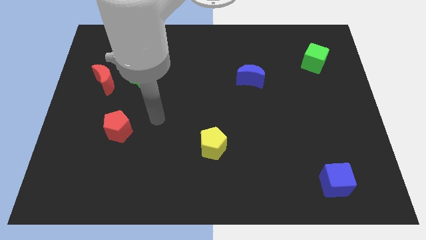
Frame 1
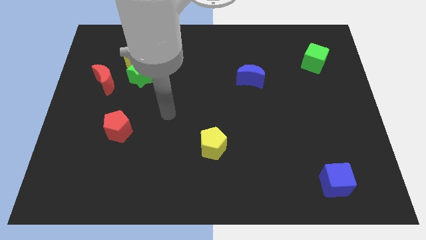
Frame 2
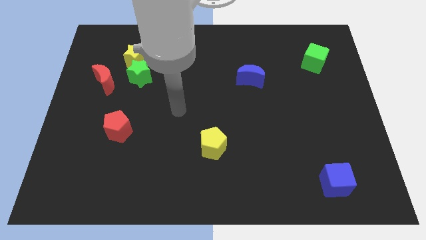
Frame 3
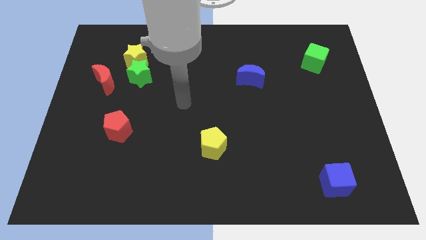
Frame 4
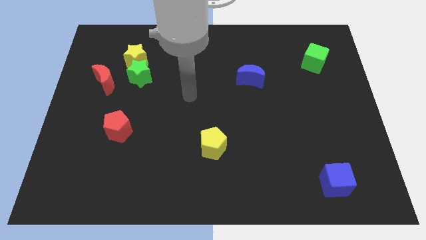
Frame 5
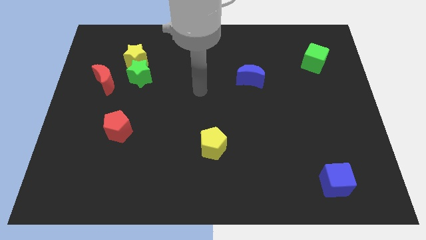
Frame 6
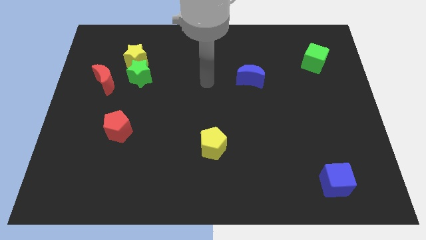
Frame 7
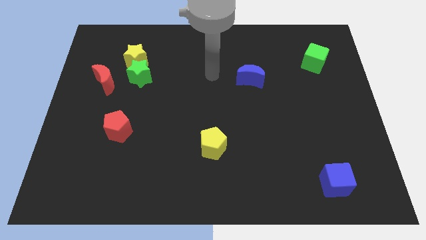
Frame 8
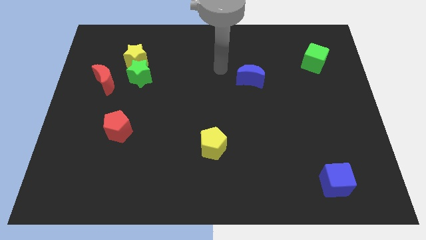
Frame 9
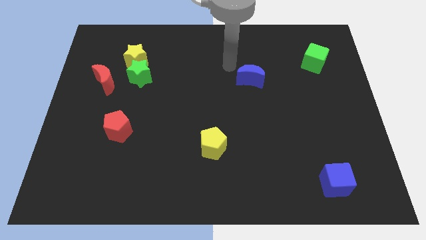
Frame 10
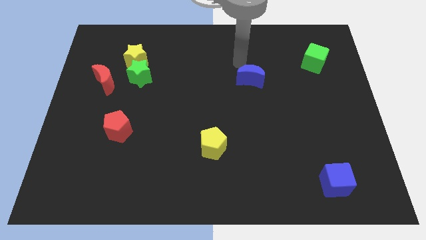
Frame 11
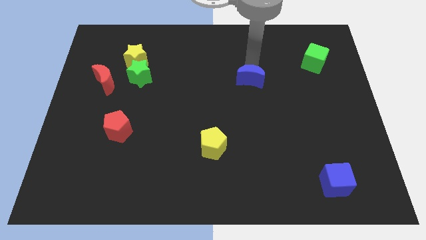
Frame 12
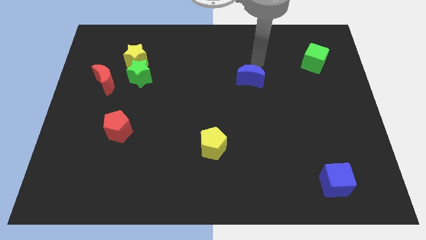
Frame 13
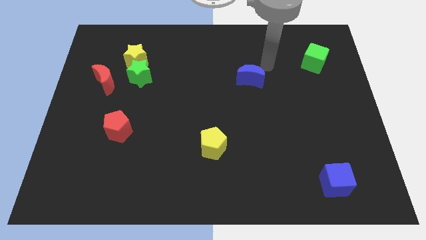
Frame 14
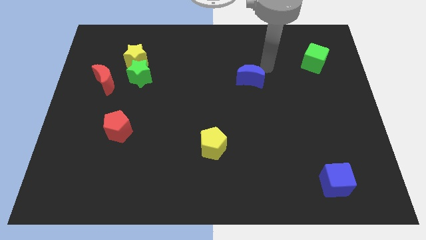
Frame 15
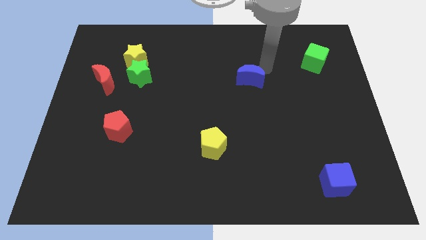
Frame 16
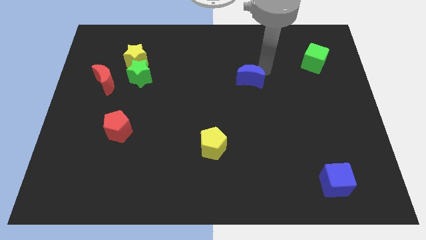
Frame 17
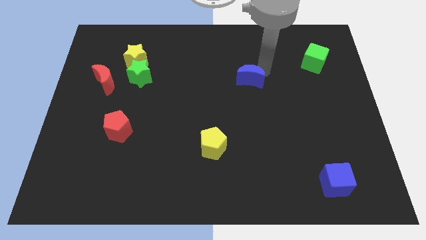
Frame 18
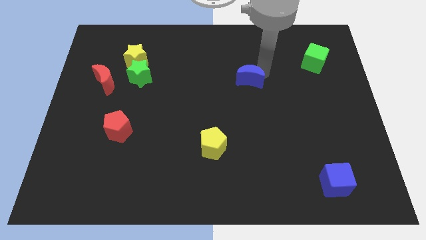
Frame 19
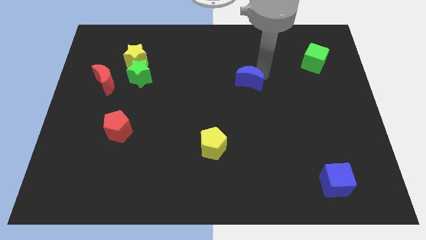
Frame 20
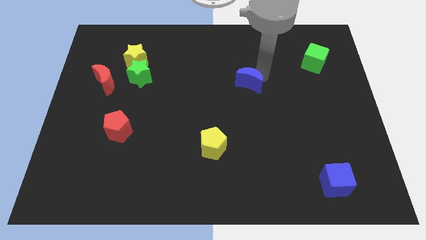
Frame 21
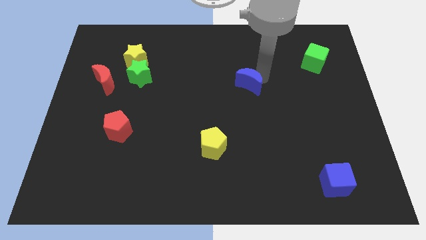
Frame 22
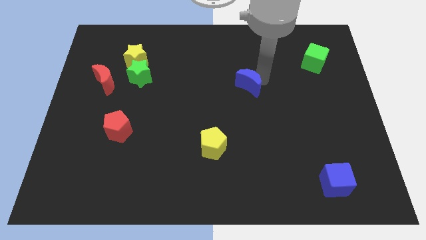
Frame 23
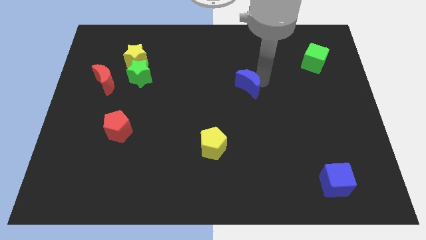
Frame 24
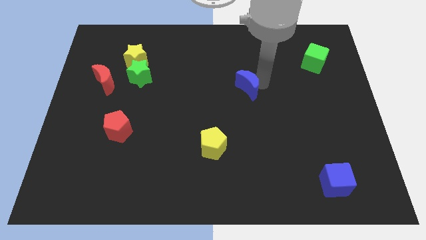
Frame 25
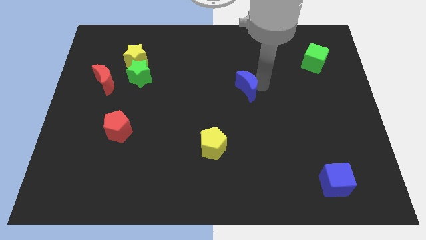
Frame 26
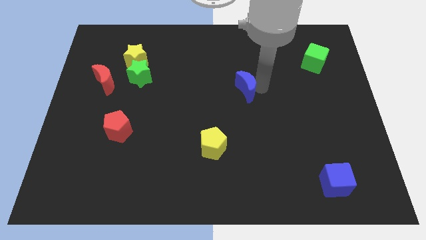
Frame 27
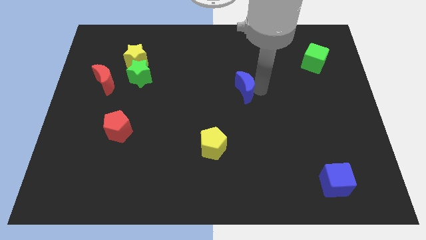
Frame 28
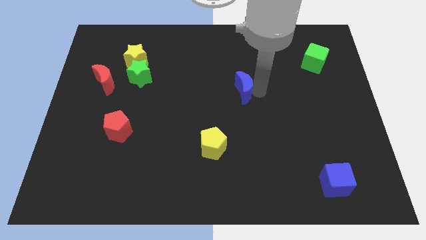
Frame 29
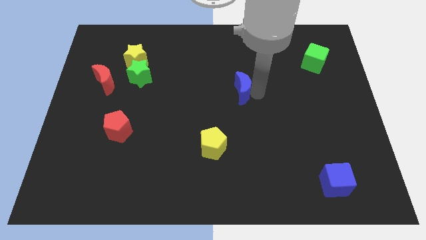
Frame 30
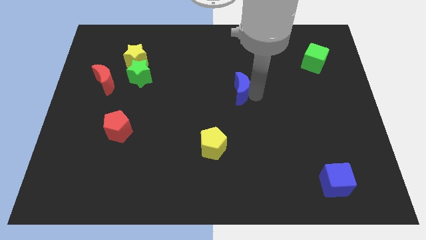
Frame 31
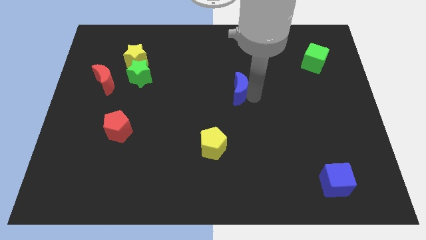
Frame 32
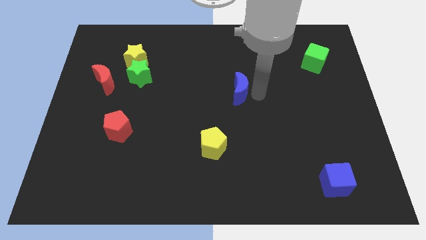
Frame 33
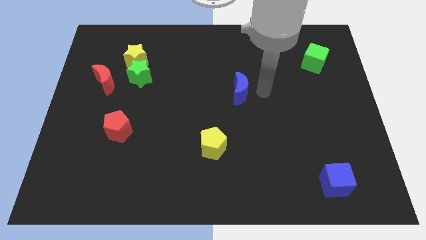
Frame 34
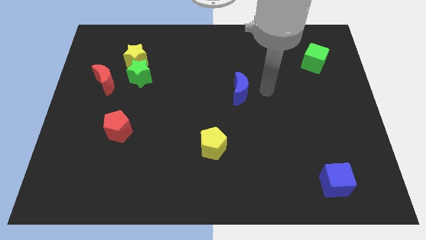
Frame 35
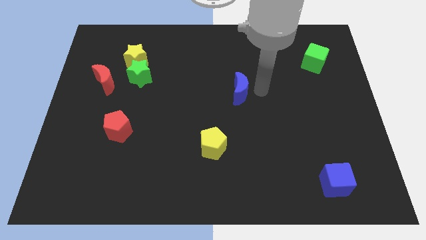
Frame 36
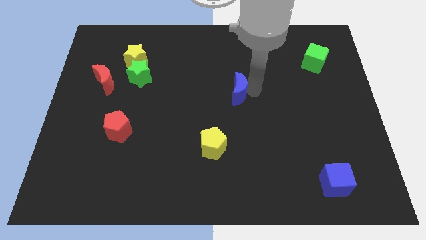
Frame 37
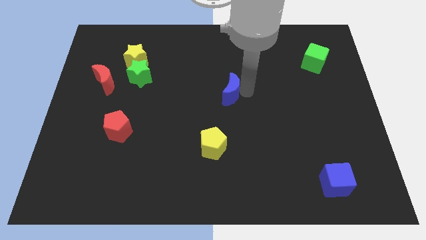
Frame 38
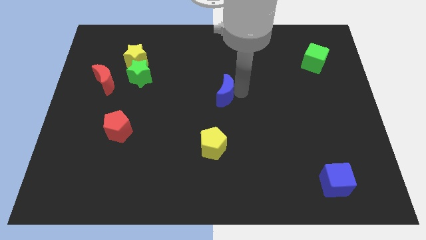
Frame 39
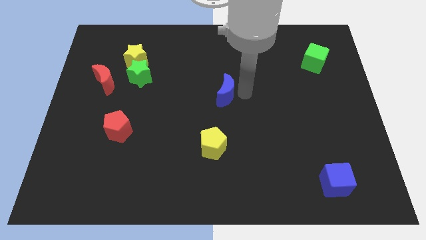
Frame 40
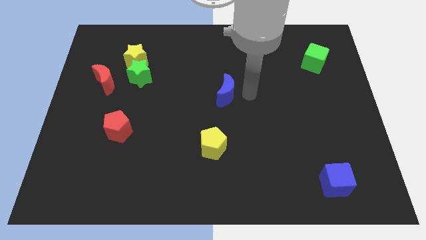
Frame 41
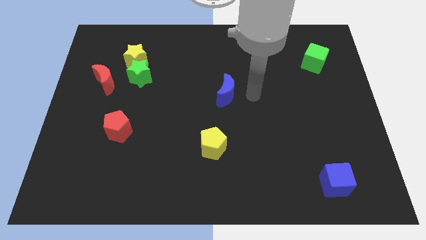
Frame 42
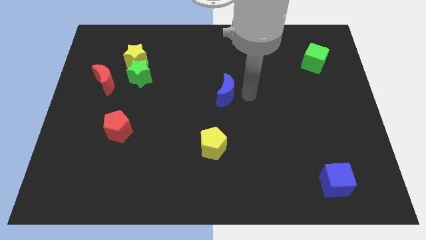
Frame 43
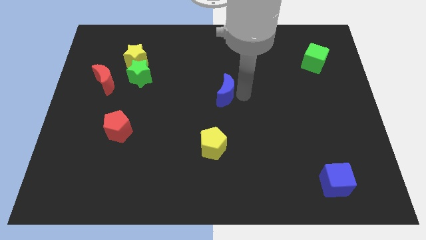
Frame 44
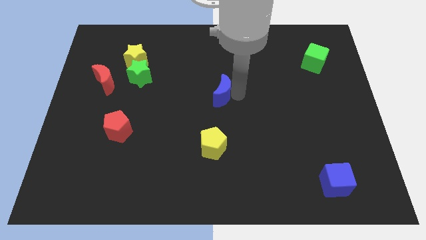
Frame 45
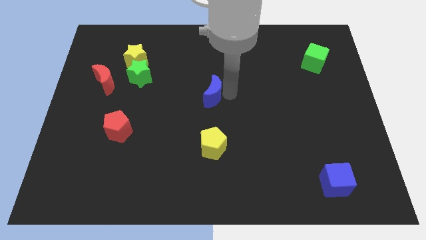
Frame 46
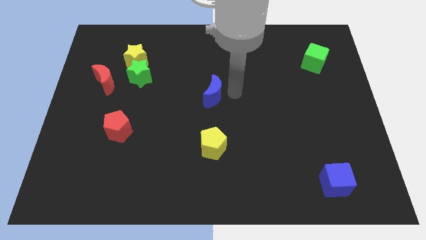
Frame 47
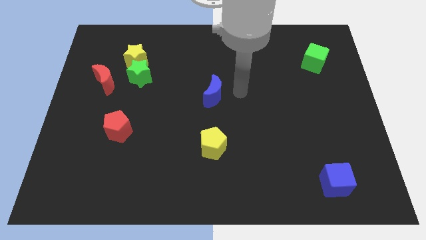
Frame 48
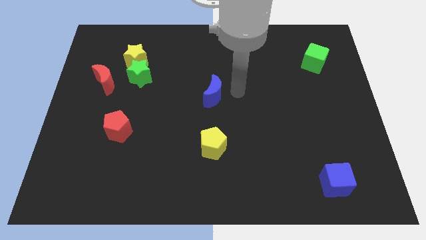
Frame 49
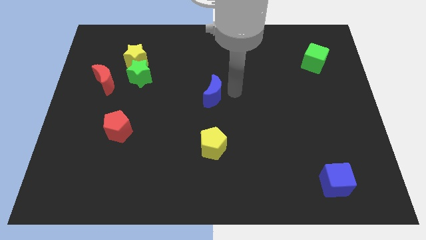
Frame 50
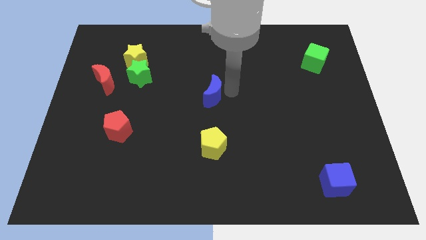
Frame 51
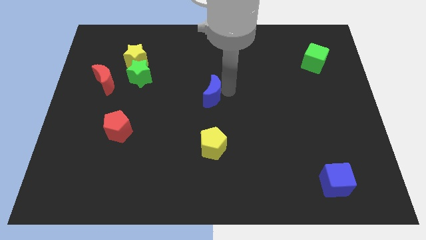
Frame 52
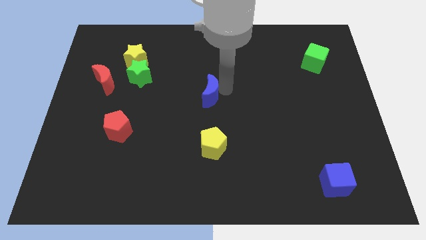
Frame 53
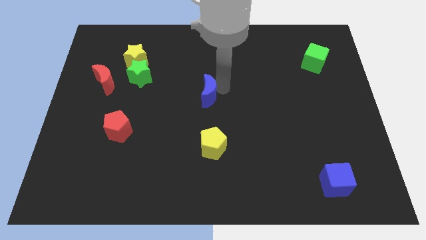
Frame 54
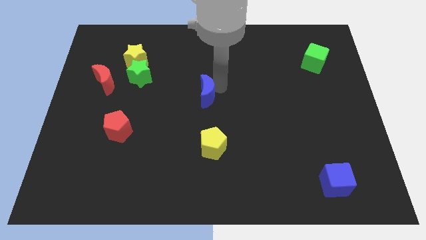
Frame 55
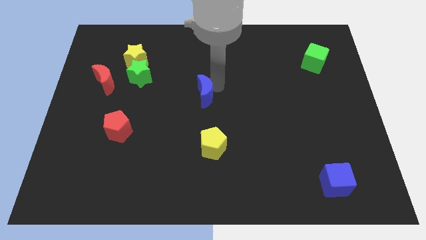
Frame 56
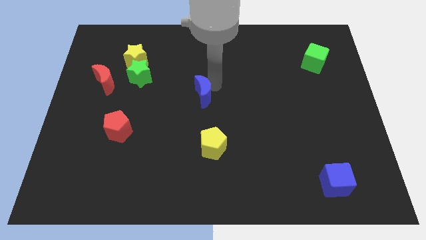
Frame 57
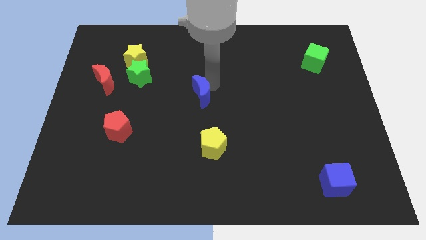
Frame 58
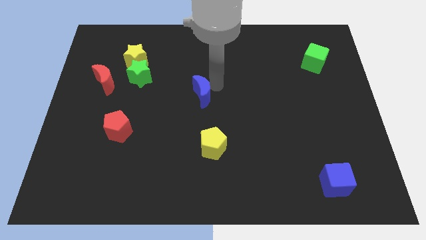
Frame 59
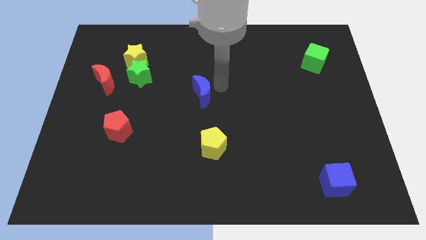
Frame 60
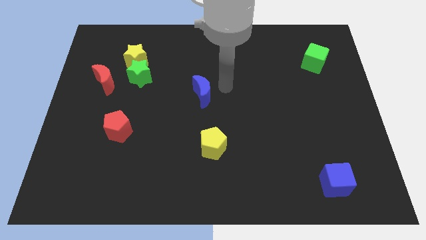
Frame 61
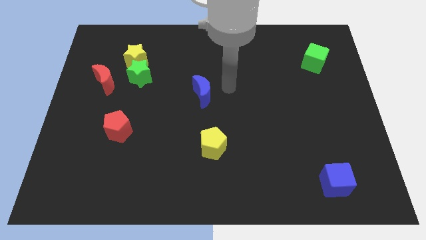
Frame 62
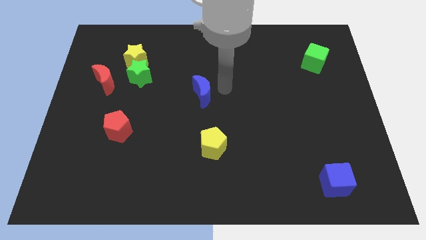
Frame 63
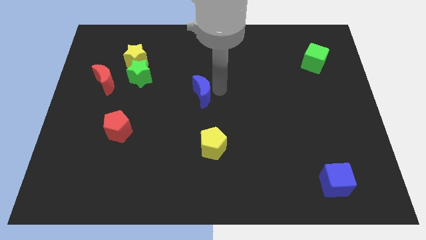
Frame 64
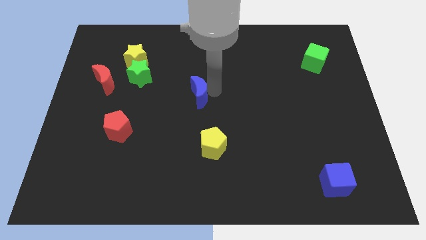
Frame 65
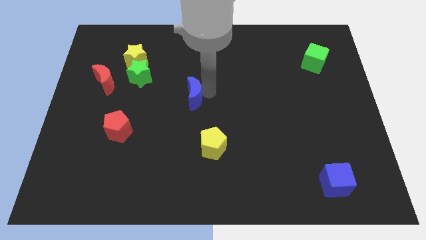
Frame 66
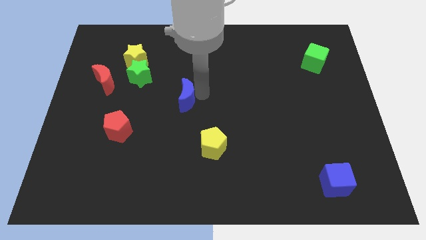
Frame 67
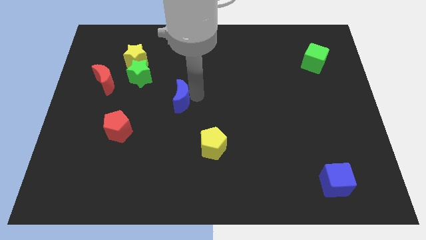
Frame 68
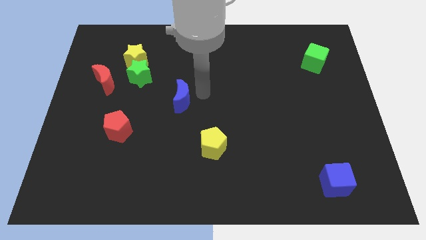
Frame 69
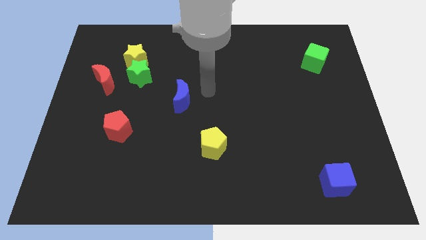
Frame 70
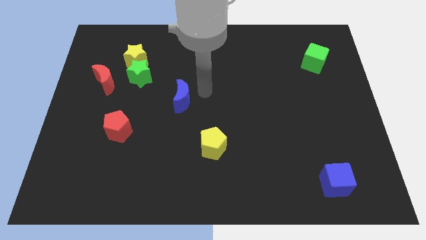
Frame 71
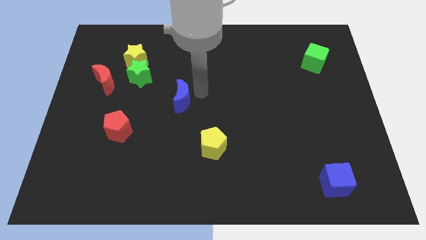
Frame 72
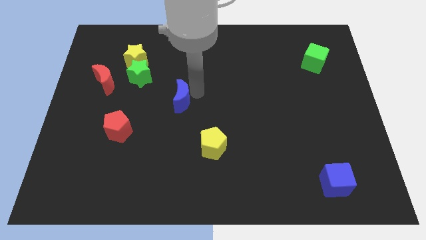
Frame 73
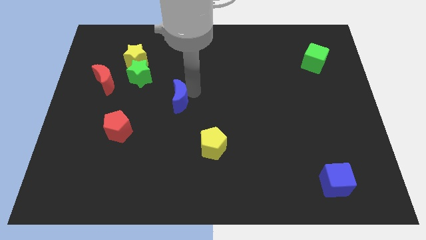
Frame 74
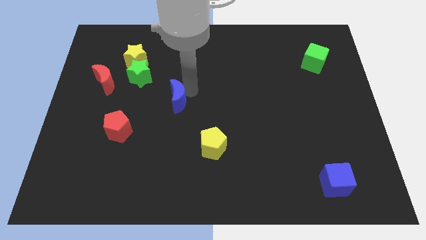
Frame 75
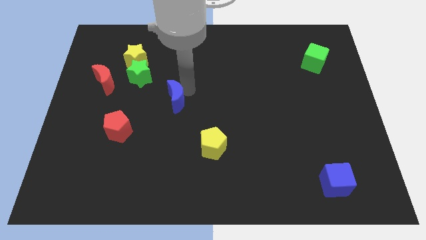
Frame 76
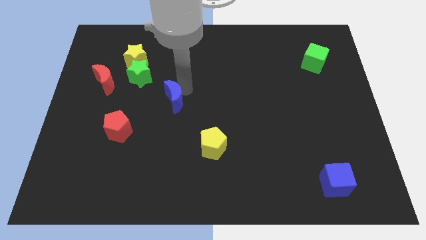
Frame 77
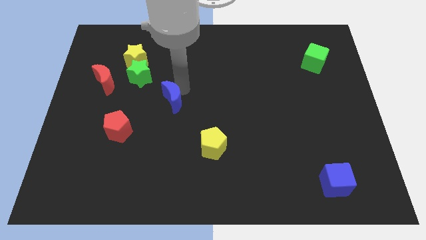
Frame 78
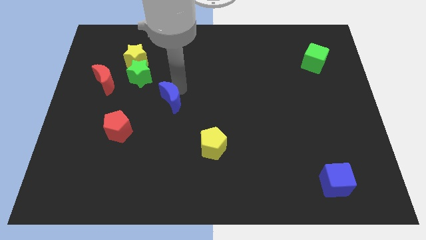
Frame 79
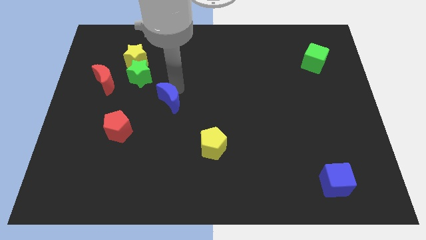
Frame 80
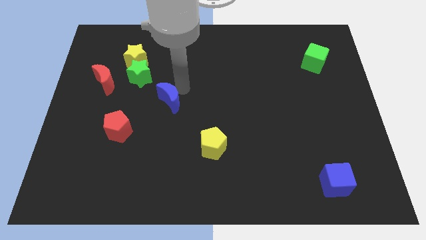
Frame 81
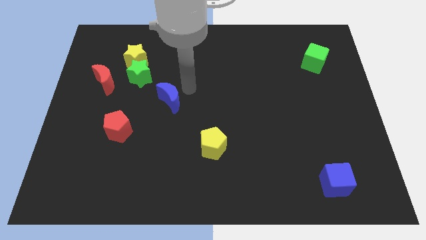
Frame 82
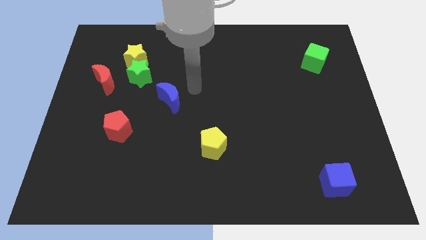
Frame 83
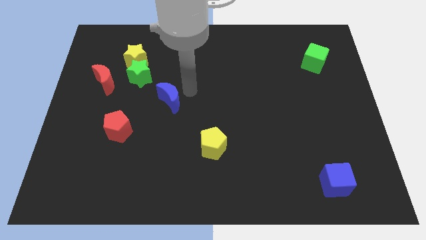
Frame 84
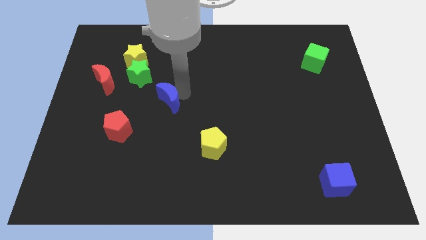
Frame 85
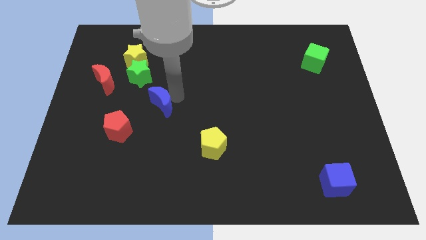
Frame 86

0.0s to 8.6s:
push the blue moon diagonally up and to the right of the red pentagon
